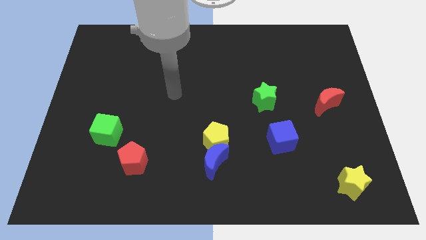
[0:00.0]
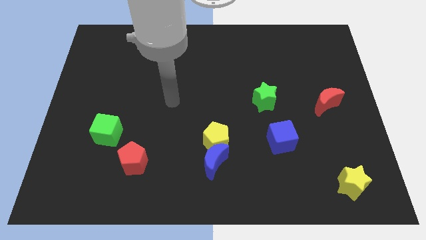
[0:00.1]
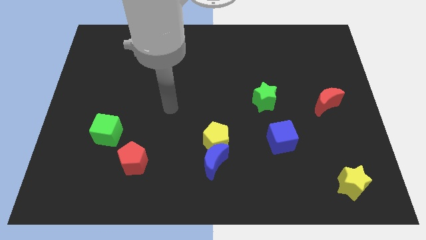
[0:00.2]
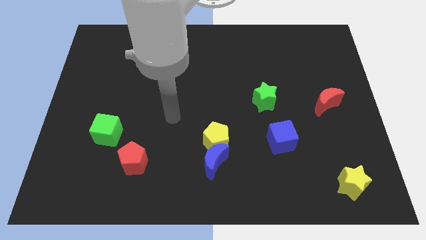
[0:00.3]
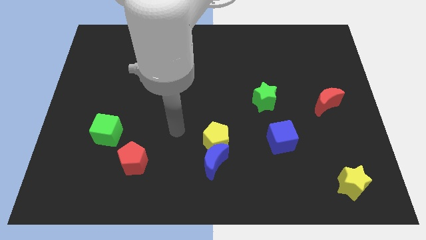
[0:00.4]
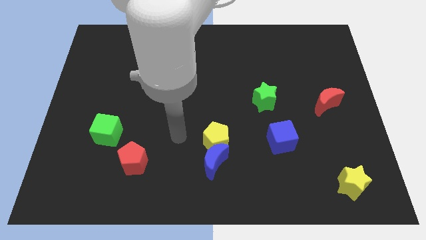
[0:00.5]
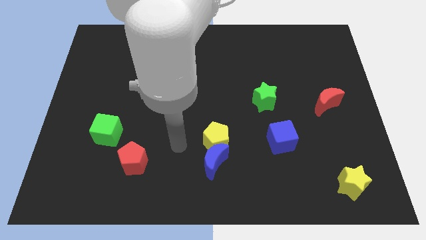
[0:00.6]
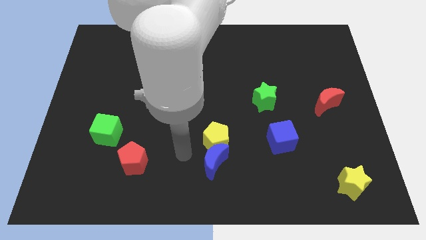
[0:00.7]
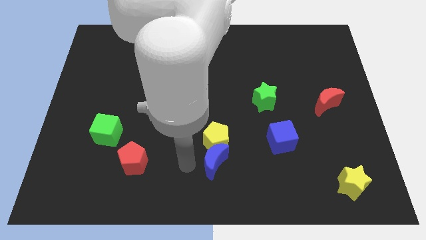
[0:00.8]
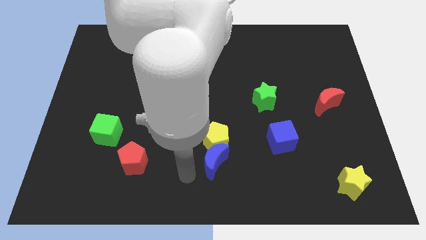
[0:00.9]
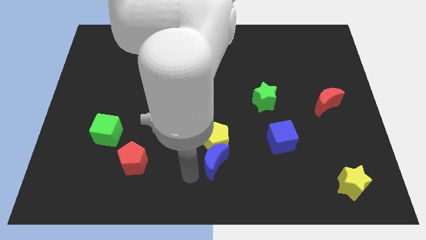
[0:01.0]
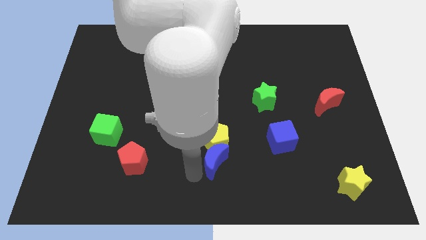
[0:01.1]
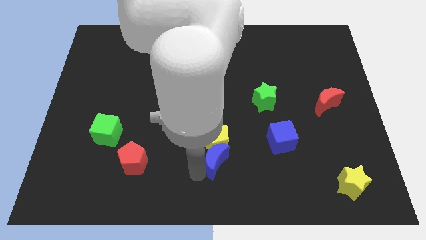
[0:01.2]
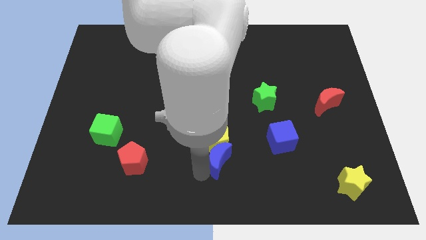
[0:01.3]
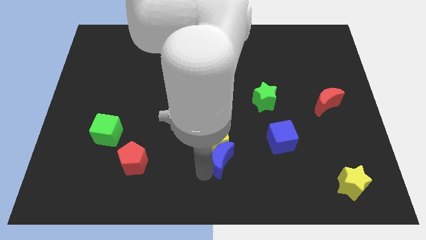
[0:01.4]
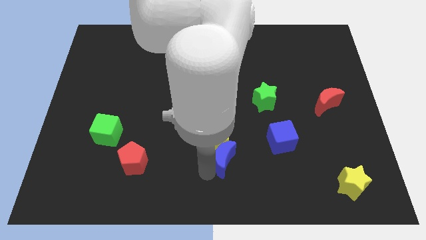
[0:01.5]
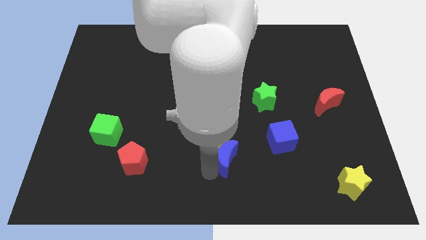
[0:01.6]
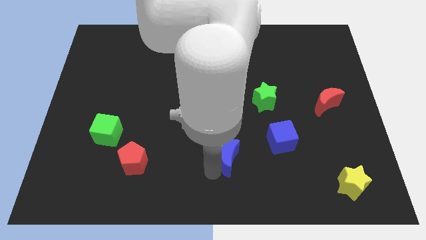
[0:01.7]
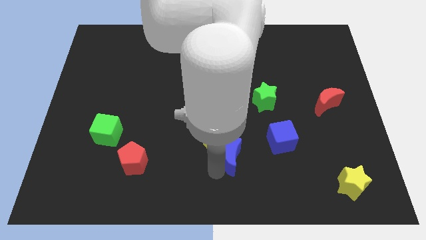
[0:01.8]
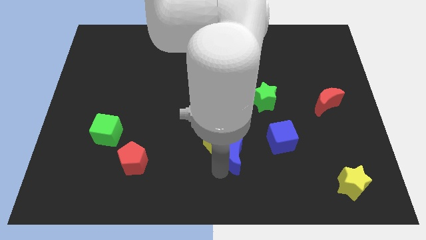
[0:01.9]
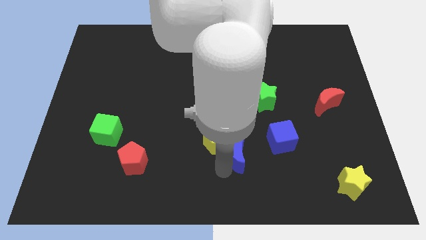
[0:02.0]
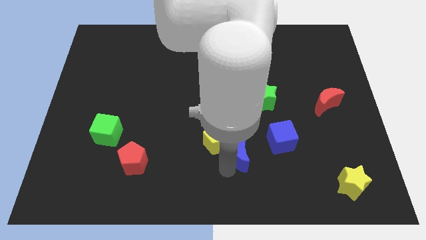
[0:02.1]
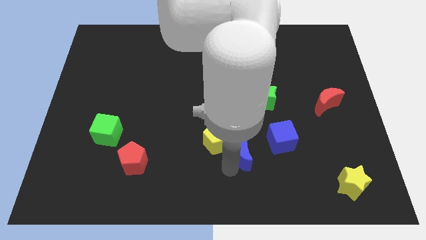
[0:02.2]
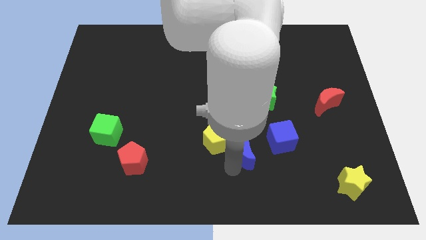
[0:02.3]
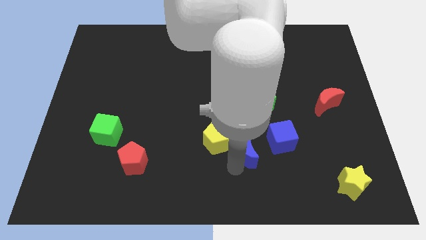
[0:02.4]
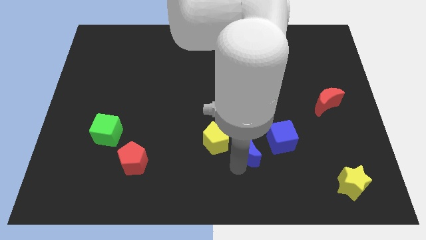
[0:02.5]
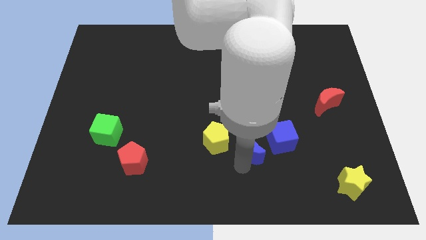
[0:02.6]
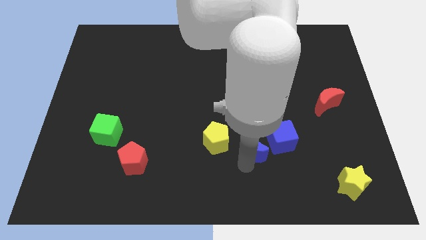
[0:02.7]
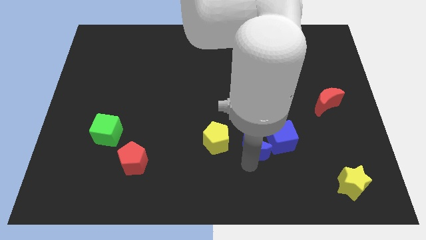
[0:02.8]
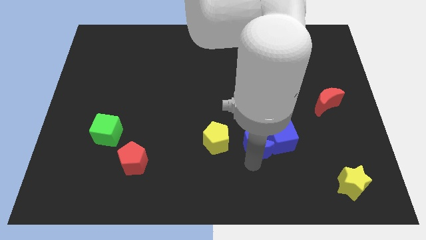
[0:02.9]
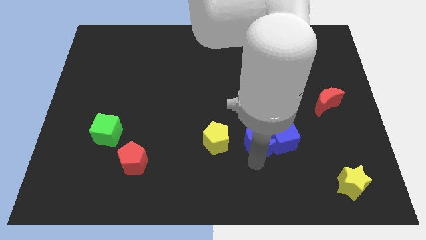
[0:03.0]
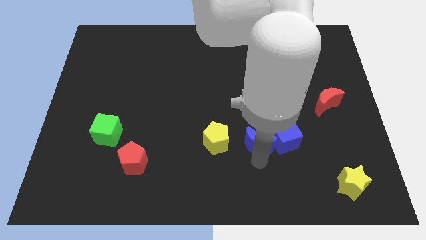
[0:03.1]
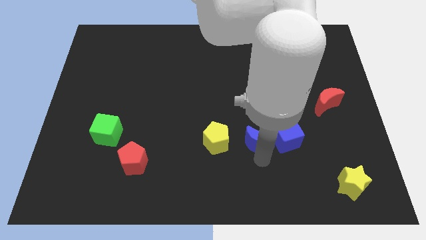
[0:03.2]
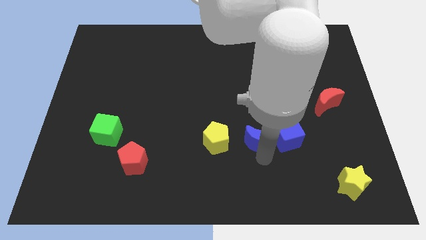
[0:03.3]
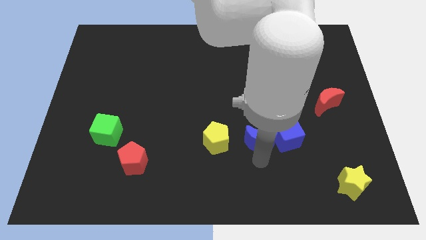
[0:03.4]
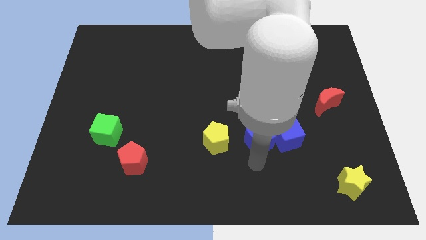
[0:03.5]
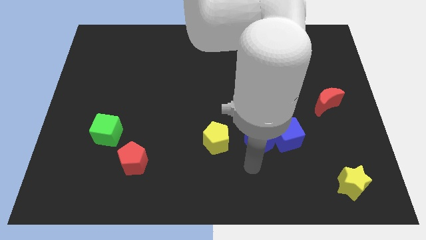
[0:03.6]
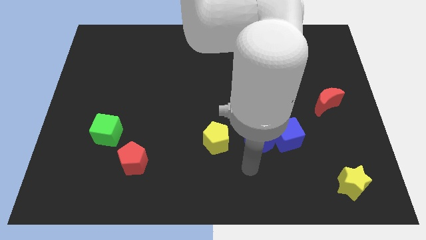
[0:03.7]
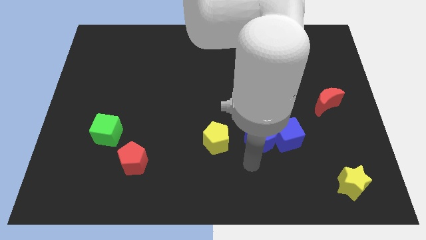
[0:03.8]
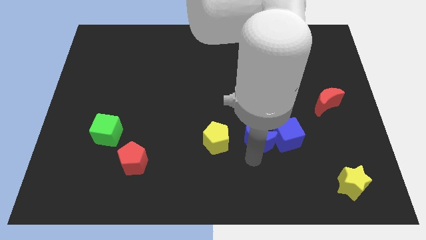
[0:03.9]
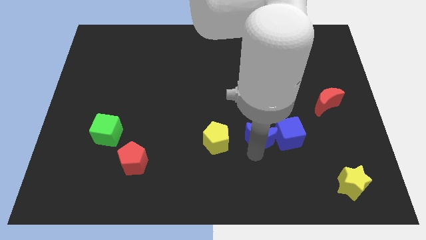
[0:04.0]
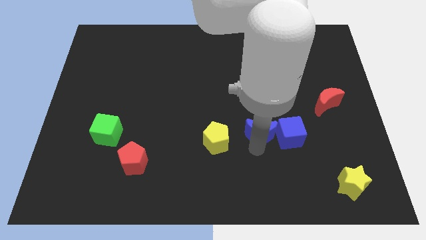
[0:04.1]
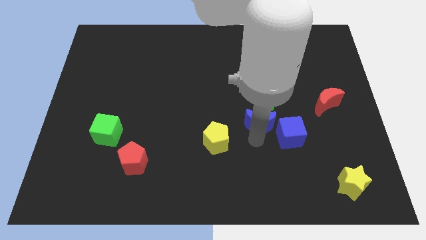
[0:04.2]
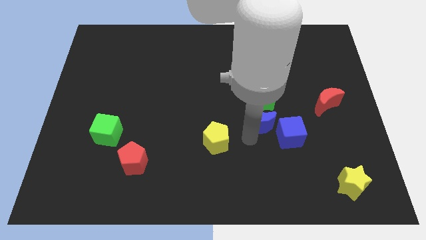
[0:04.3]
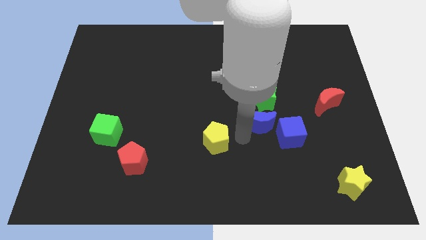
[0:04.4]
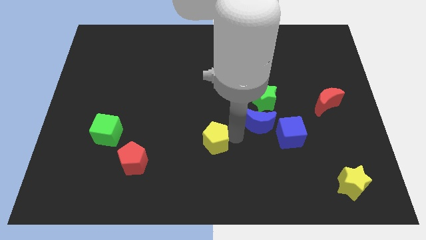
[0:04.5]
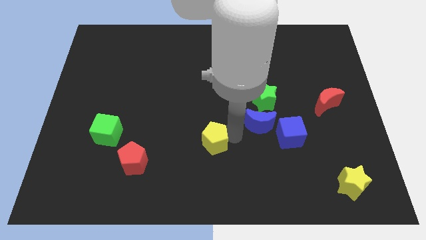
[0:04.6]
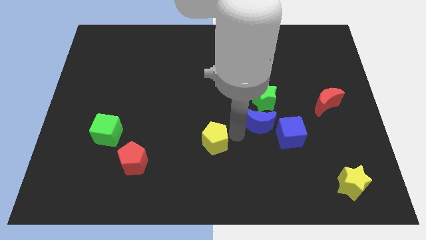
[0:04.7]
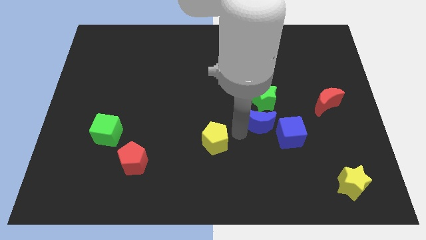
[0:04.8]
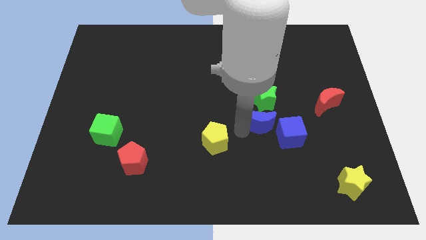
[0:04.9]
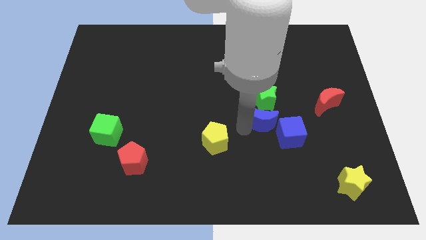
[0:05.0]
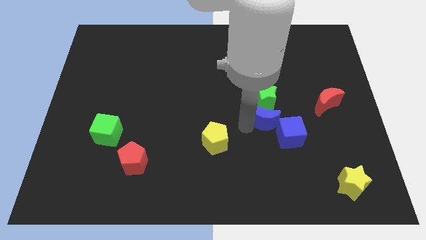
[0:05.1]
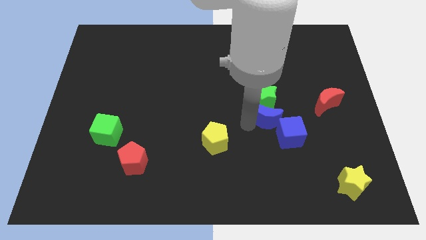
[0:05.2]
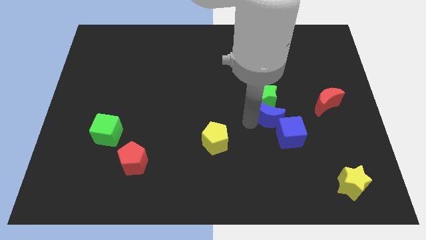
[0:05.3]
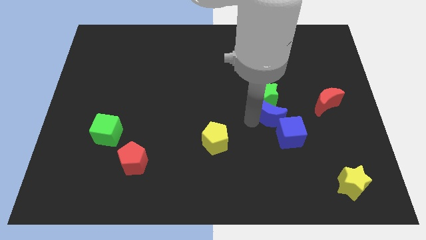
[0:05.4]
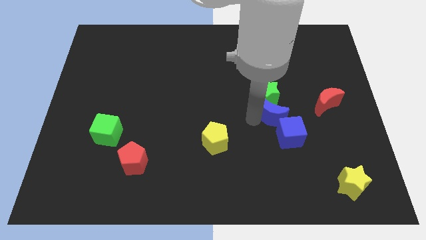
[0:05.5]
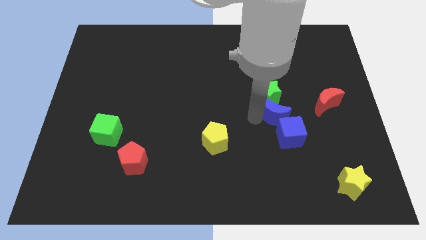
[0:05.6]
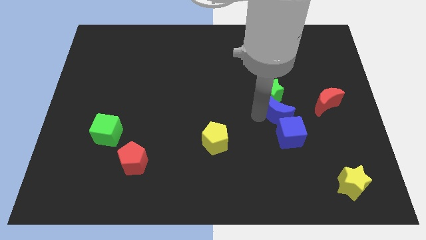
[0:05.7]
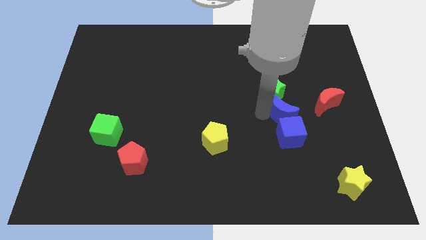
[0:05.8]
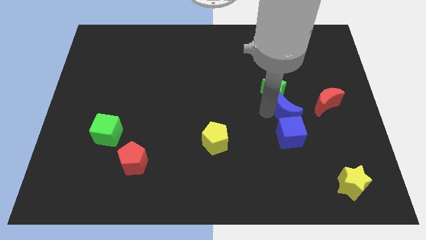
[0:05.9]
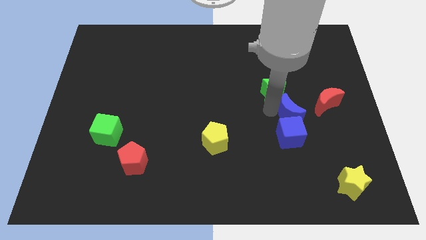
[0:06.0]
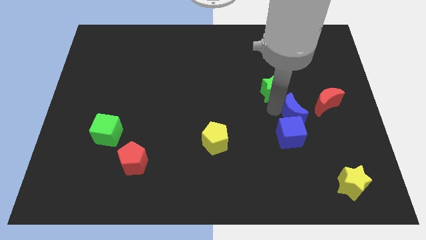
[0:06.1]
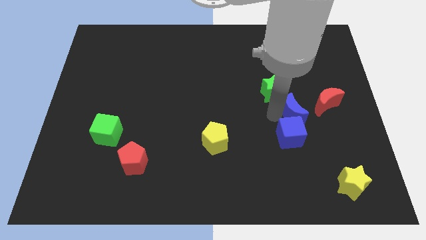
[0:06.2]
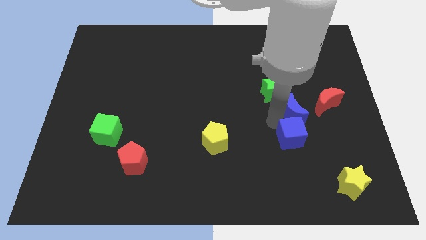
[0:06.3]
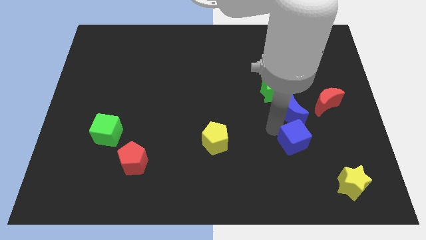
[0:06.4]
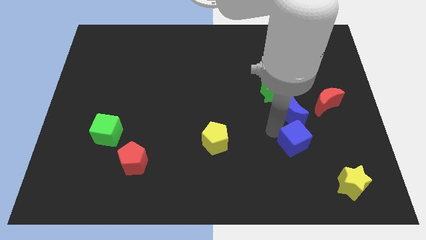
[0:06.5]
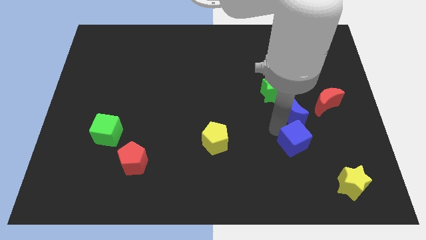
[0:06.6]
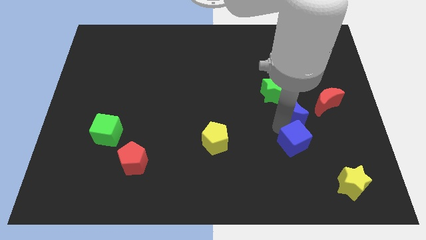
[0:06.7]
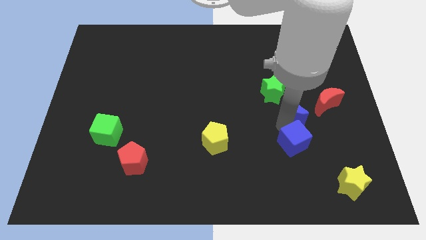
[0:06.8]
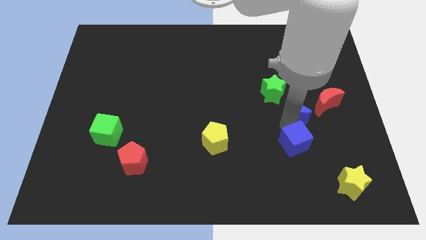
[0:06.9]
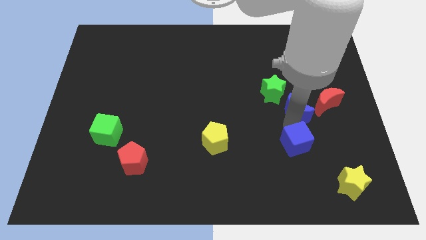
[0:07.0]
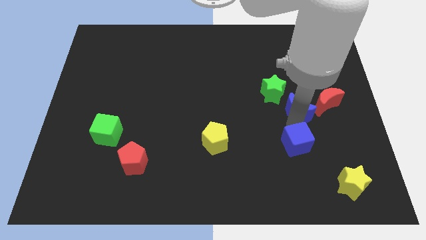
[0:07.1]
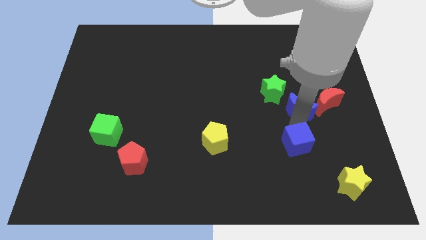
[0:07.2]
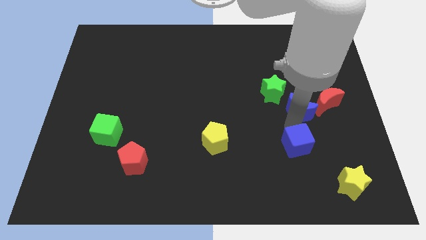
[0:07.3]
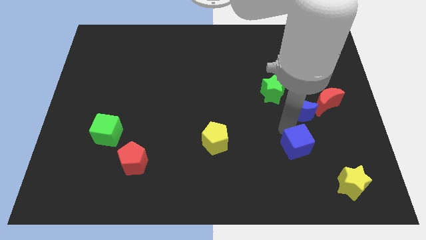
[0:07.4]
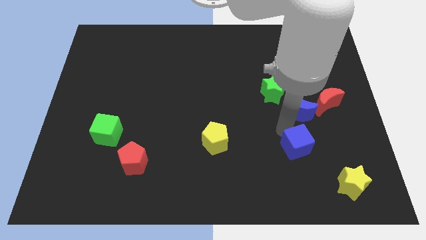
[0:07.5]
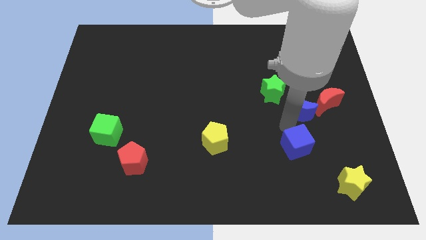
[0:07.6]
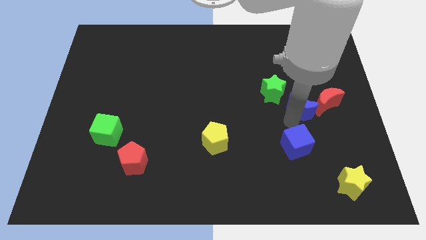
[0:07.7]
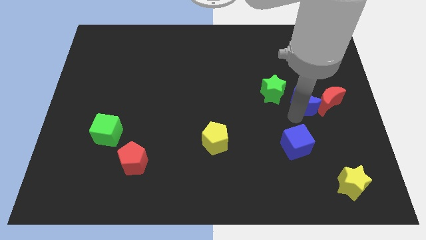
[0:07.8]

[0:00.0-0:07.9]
slide the blue moon right of the green star
